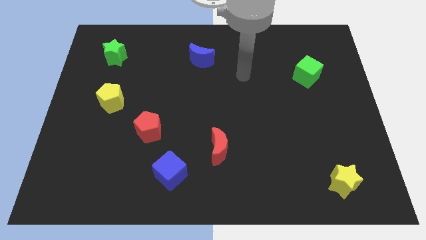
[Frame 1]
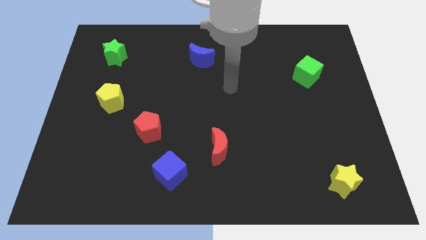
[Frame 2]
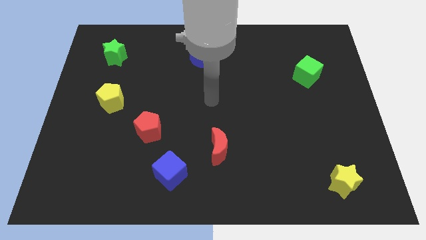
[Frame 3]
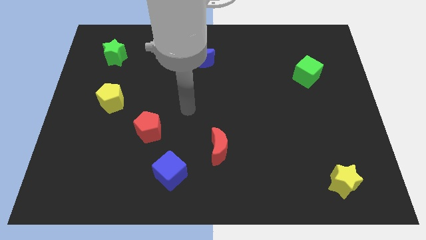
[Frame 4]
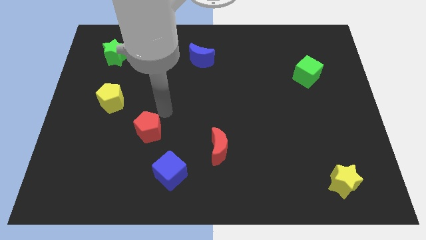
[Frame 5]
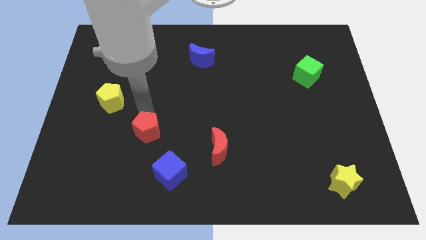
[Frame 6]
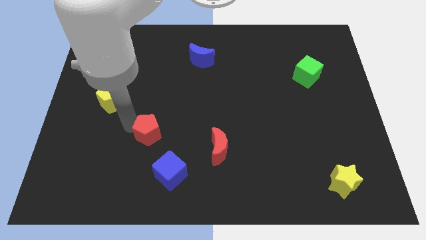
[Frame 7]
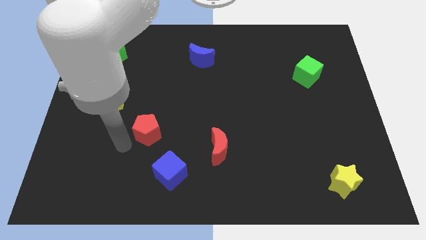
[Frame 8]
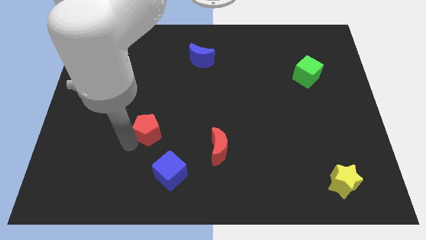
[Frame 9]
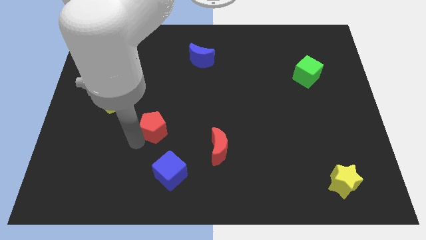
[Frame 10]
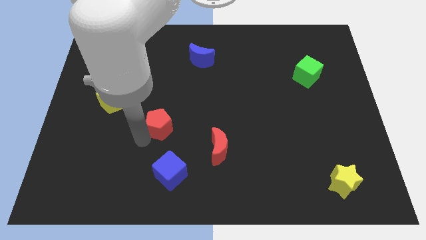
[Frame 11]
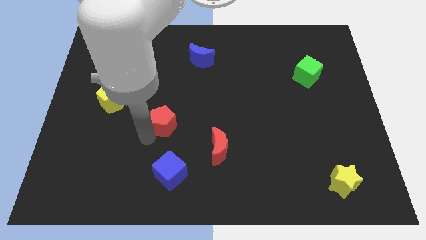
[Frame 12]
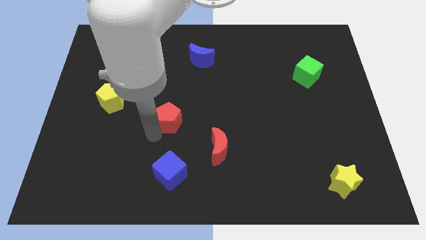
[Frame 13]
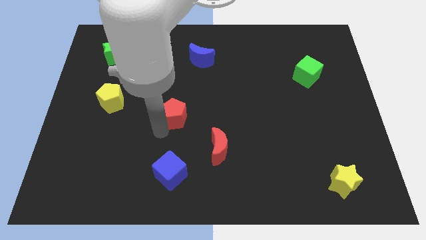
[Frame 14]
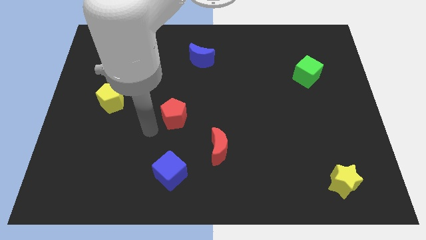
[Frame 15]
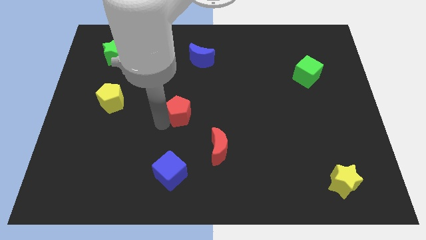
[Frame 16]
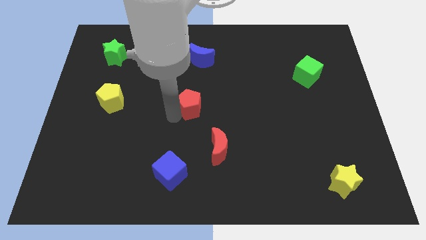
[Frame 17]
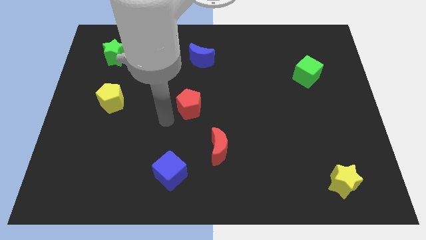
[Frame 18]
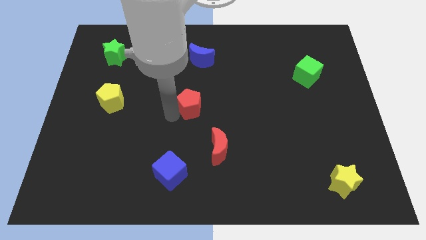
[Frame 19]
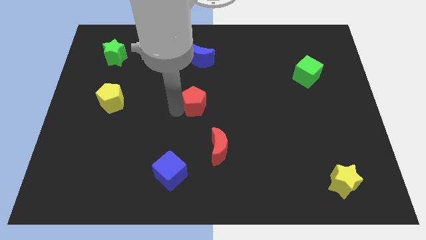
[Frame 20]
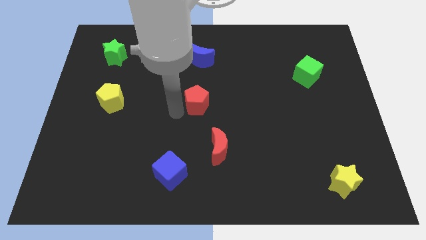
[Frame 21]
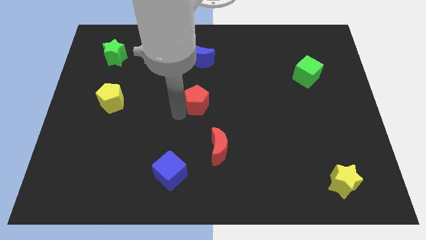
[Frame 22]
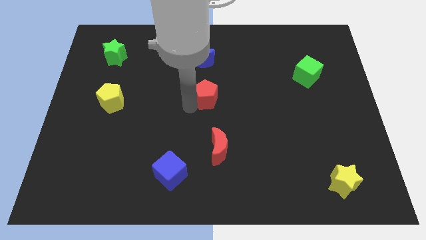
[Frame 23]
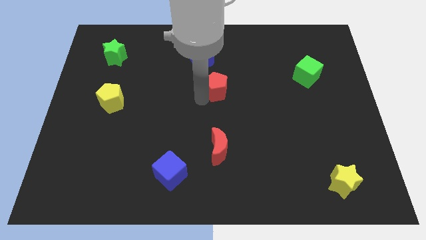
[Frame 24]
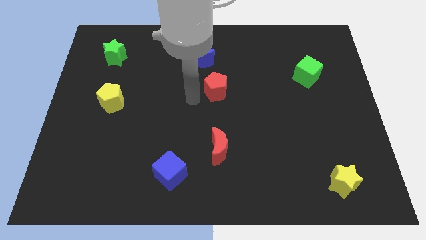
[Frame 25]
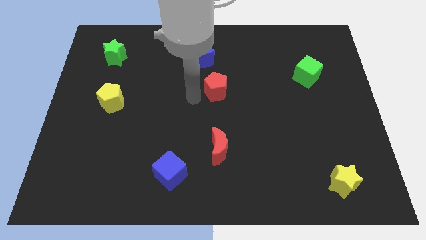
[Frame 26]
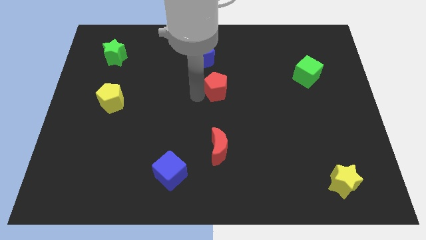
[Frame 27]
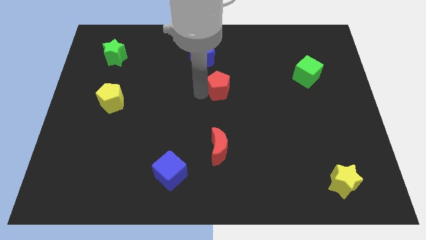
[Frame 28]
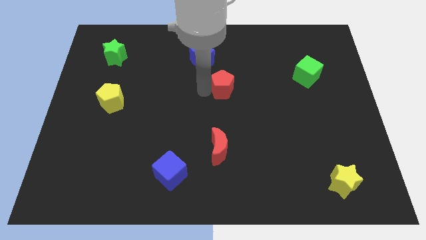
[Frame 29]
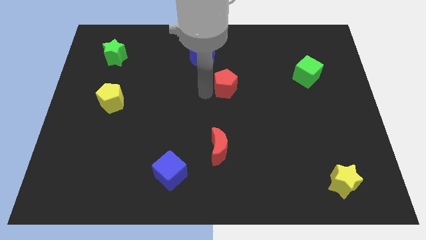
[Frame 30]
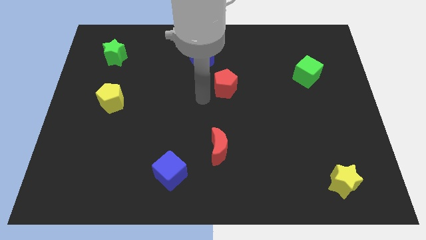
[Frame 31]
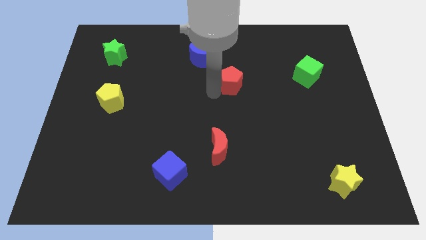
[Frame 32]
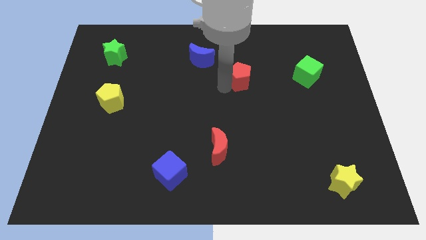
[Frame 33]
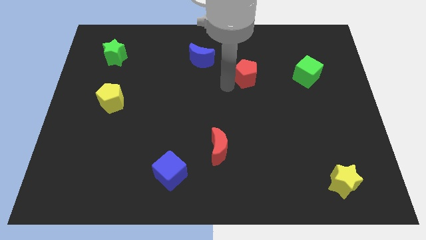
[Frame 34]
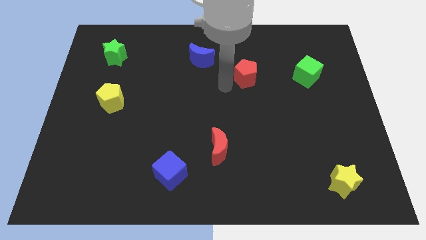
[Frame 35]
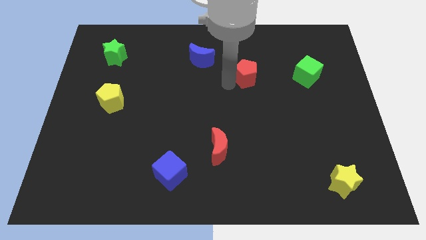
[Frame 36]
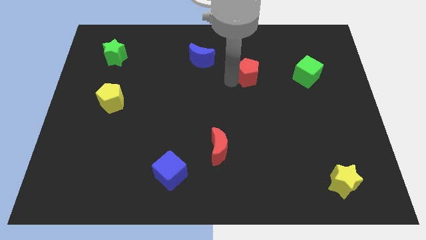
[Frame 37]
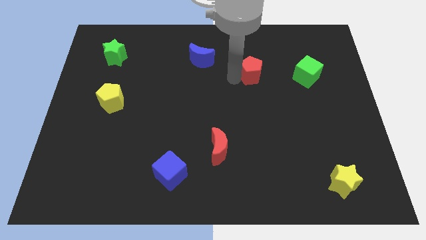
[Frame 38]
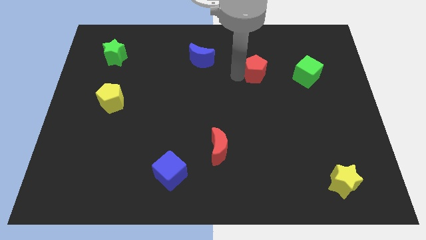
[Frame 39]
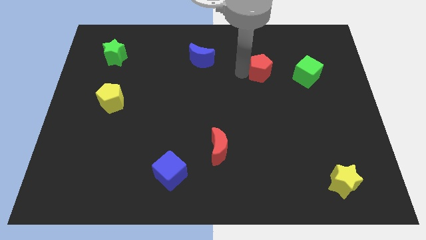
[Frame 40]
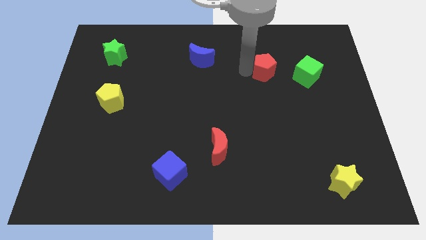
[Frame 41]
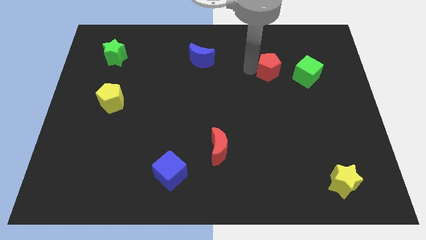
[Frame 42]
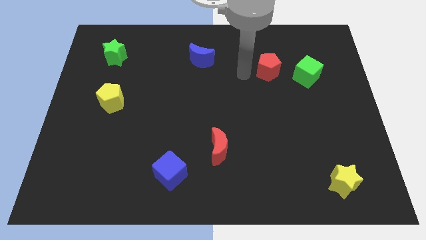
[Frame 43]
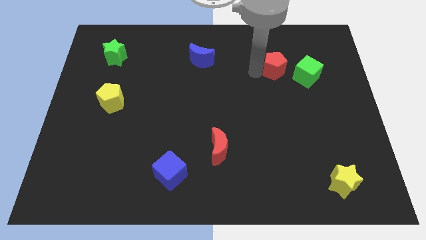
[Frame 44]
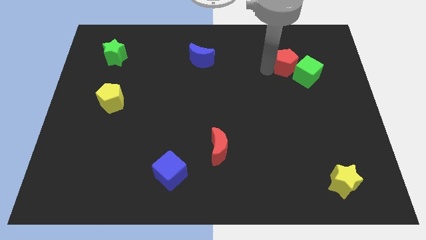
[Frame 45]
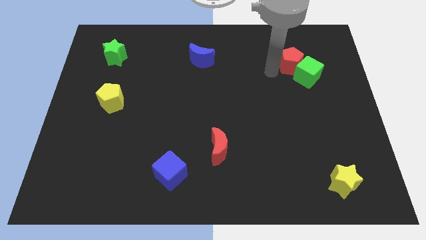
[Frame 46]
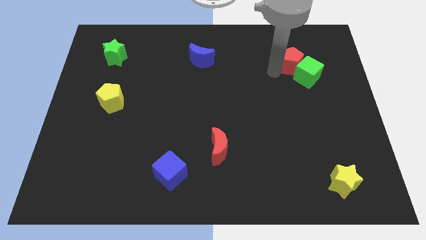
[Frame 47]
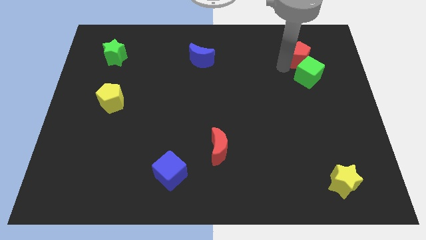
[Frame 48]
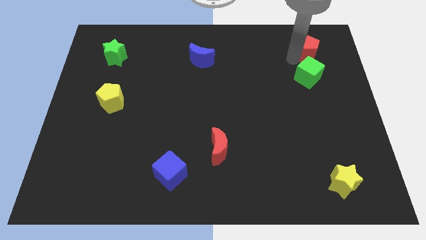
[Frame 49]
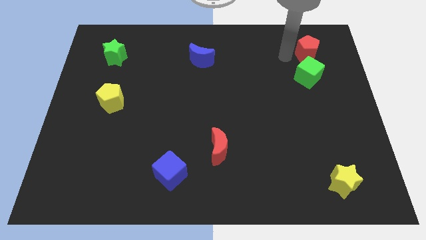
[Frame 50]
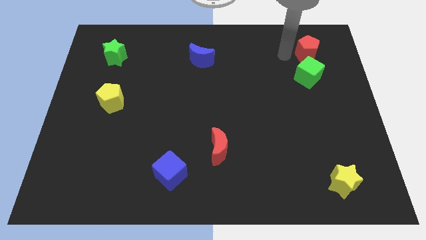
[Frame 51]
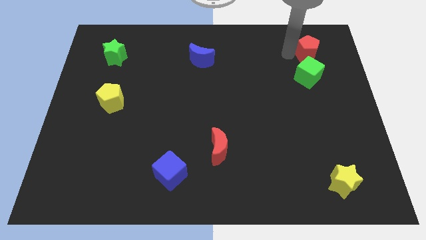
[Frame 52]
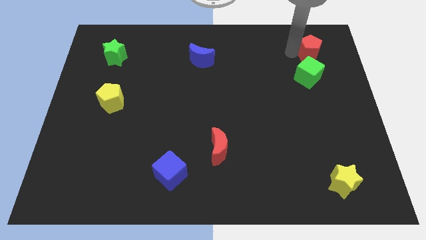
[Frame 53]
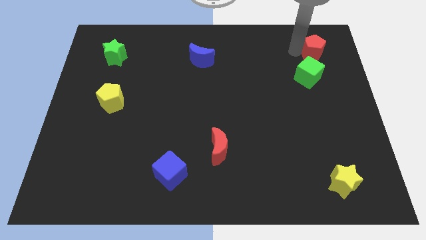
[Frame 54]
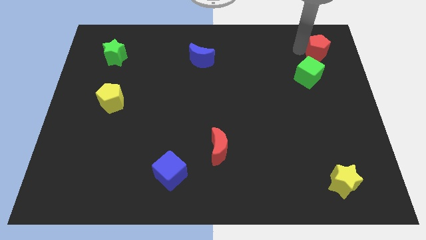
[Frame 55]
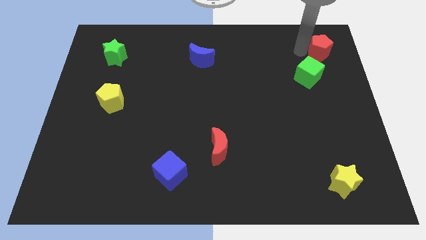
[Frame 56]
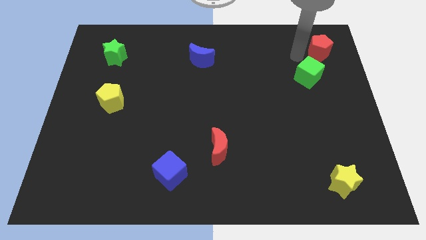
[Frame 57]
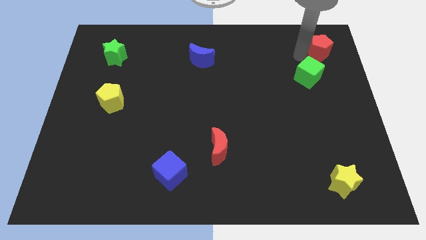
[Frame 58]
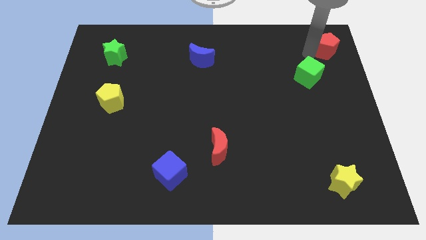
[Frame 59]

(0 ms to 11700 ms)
put the red pentagon to the top right
